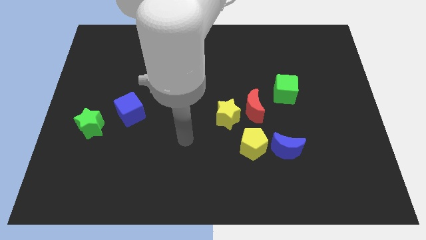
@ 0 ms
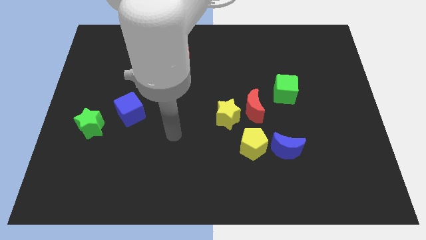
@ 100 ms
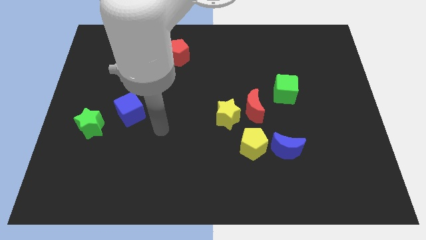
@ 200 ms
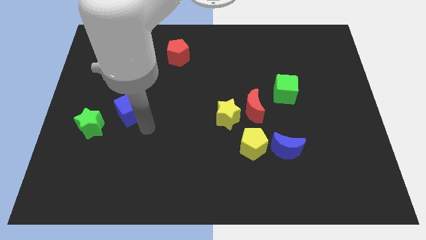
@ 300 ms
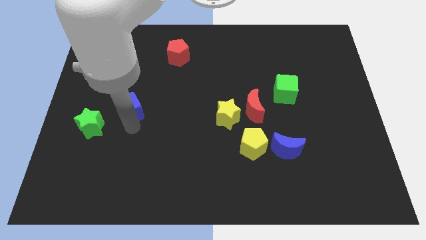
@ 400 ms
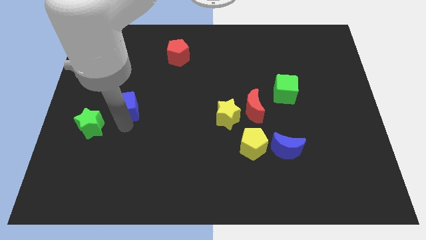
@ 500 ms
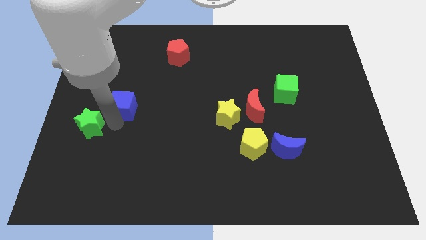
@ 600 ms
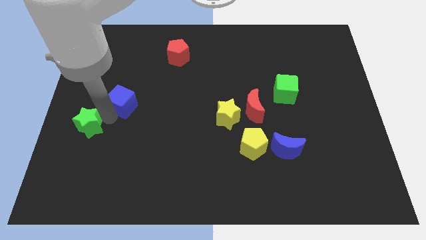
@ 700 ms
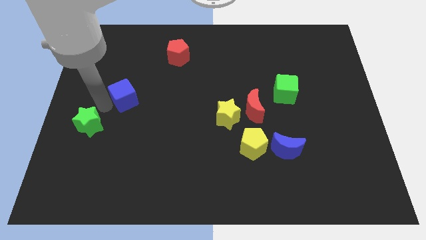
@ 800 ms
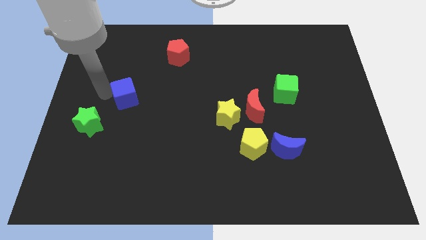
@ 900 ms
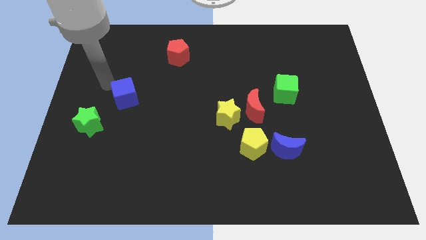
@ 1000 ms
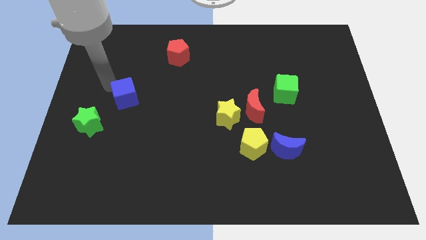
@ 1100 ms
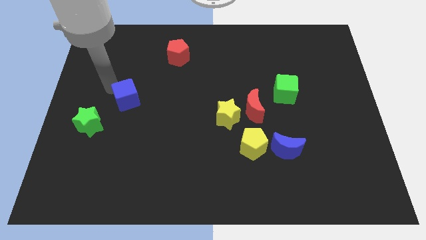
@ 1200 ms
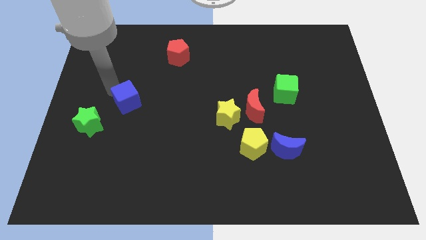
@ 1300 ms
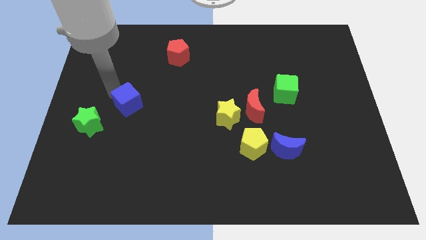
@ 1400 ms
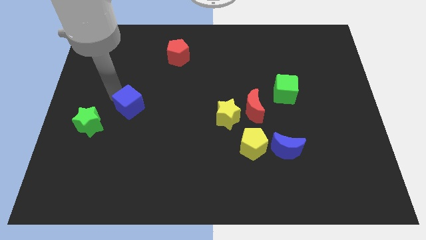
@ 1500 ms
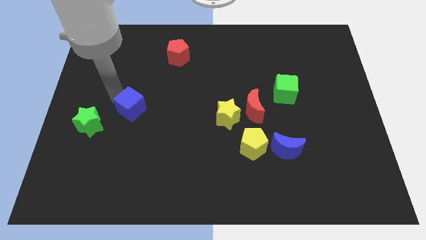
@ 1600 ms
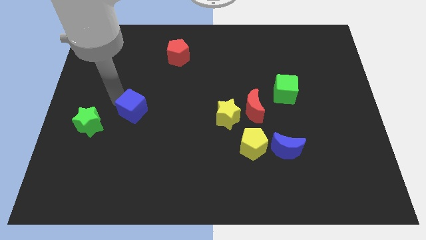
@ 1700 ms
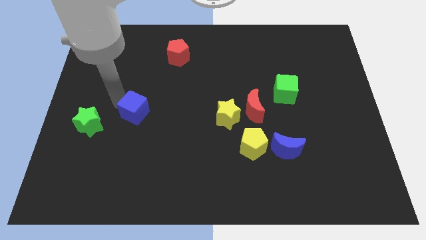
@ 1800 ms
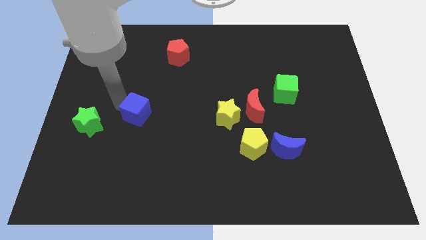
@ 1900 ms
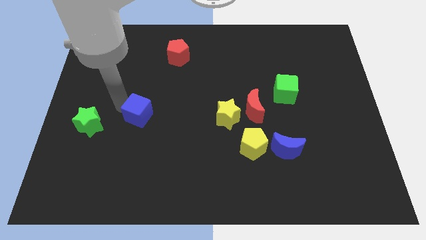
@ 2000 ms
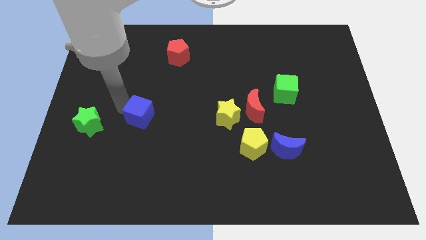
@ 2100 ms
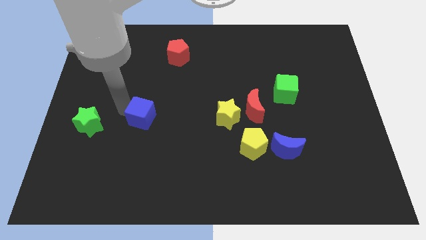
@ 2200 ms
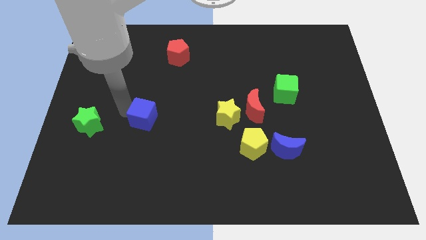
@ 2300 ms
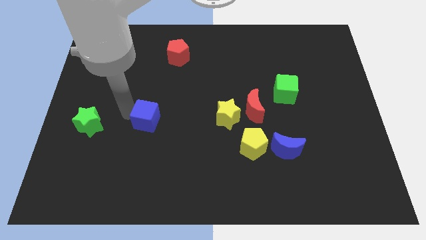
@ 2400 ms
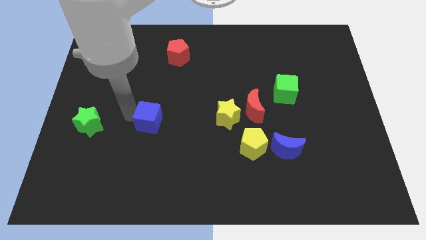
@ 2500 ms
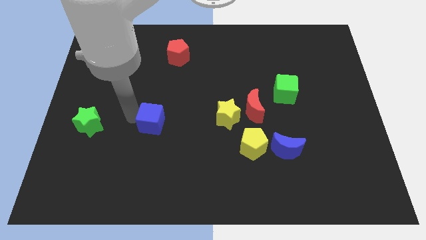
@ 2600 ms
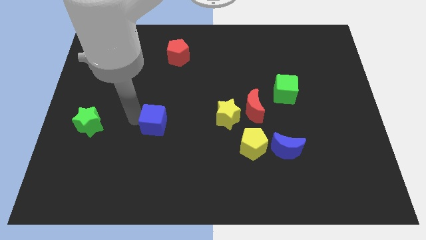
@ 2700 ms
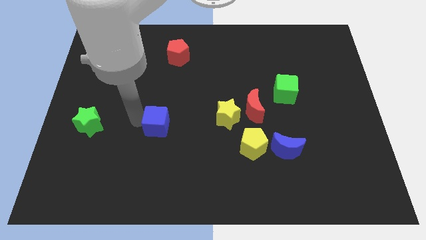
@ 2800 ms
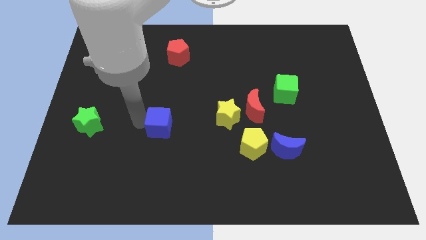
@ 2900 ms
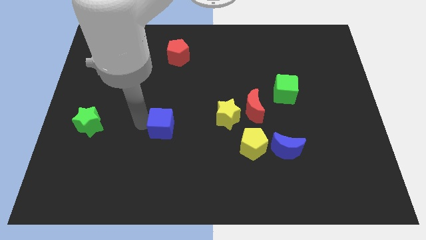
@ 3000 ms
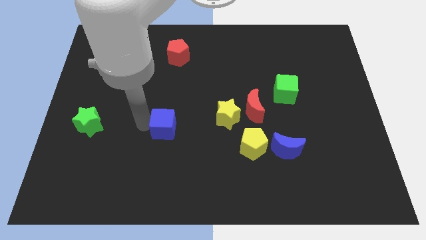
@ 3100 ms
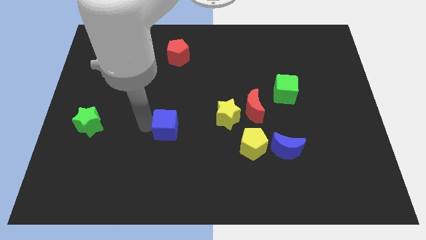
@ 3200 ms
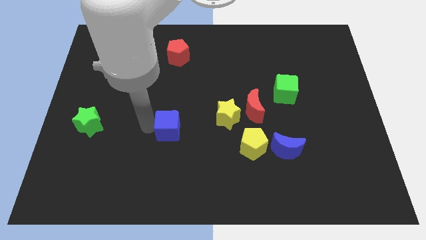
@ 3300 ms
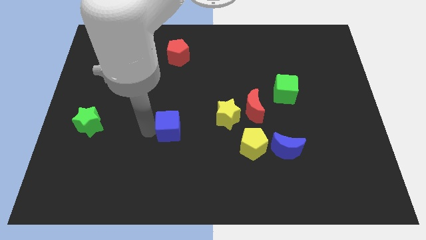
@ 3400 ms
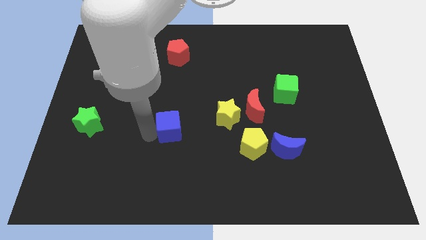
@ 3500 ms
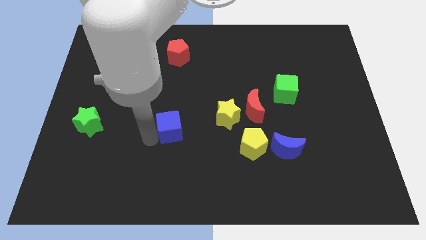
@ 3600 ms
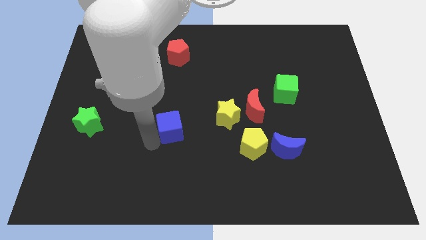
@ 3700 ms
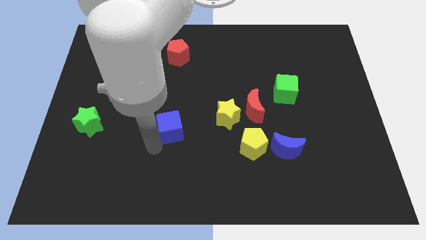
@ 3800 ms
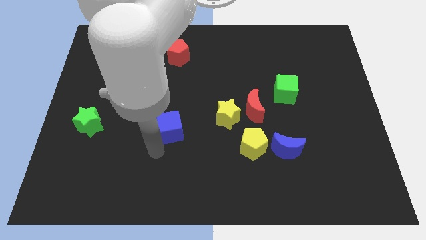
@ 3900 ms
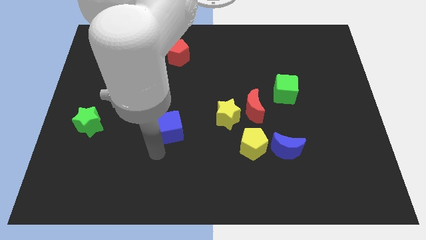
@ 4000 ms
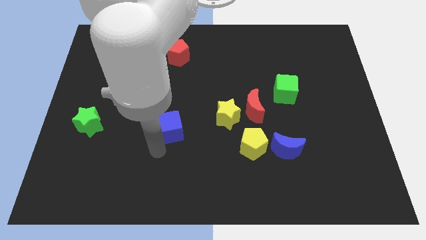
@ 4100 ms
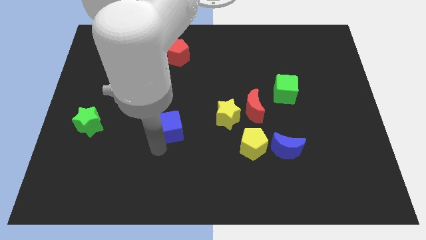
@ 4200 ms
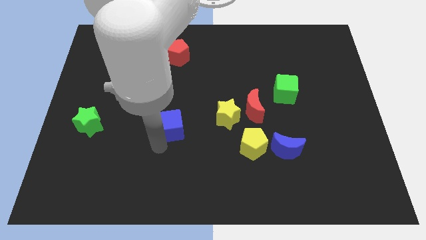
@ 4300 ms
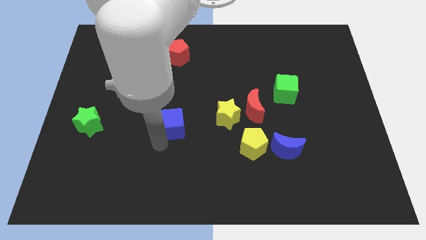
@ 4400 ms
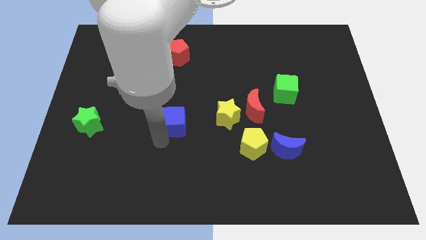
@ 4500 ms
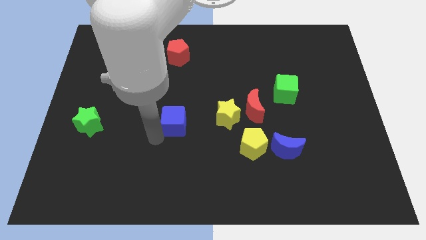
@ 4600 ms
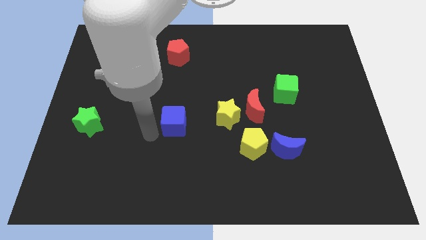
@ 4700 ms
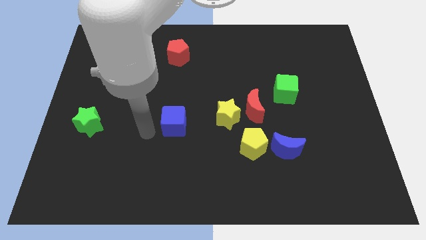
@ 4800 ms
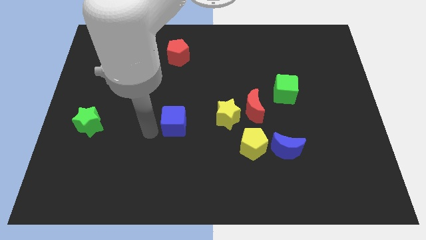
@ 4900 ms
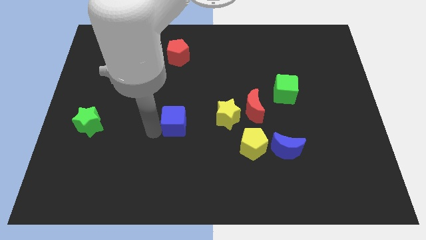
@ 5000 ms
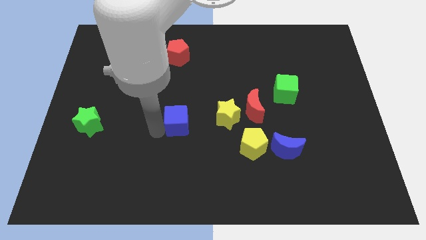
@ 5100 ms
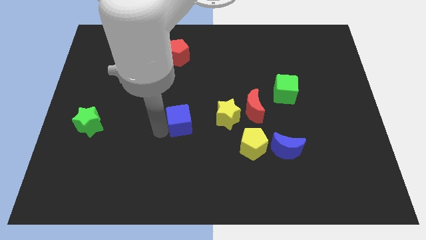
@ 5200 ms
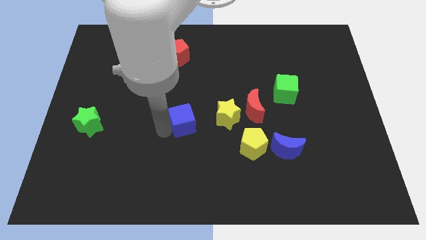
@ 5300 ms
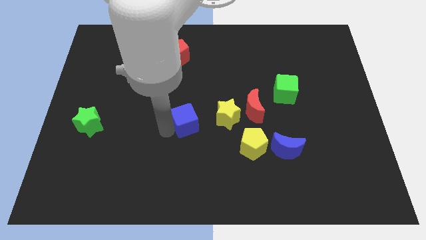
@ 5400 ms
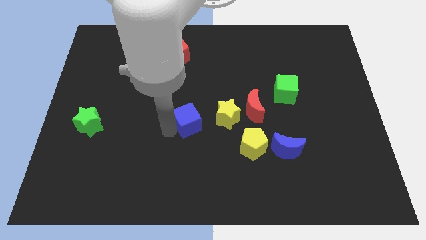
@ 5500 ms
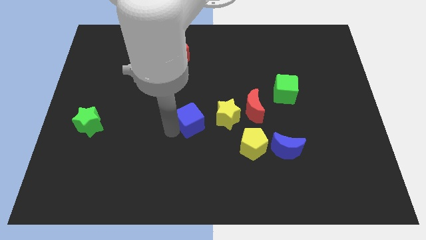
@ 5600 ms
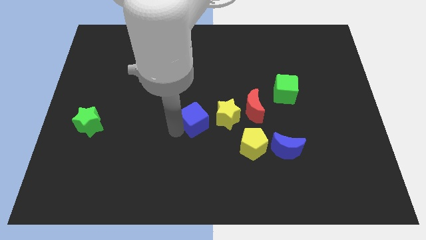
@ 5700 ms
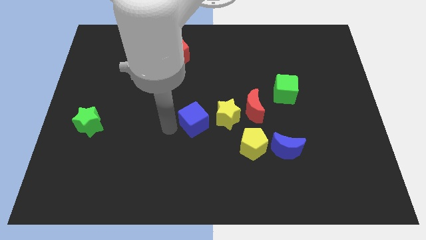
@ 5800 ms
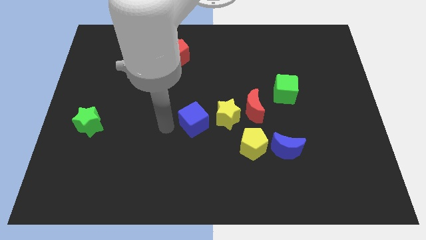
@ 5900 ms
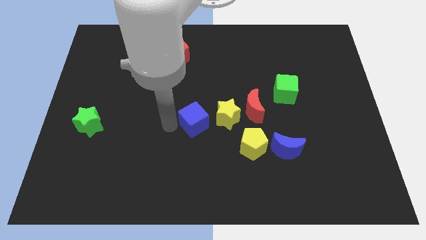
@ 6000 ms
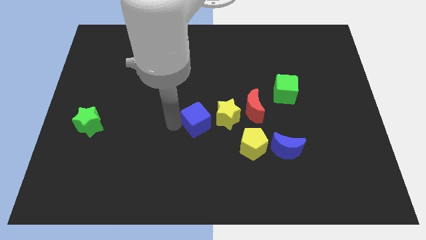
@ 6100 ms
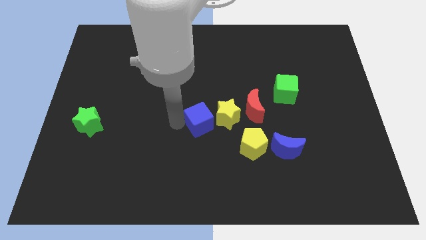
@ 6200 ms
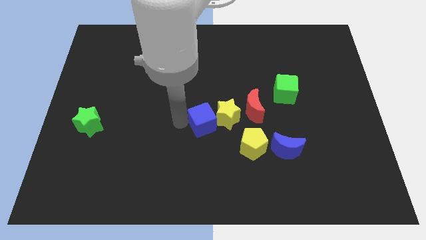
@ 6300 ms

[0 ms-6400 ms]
push the blue cube close to the yellow star

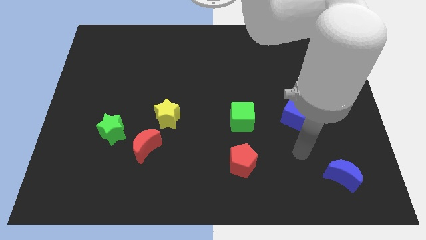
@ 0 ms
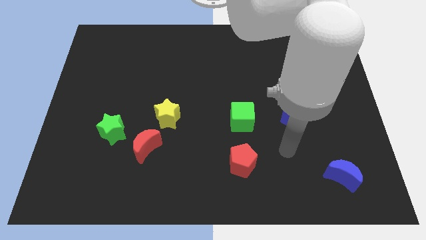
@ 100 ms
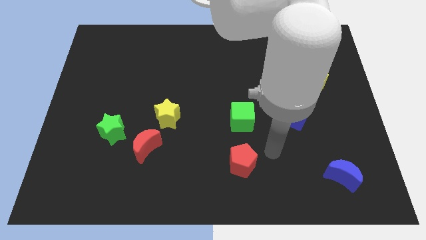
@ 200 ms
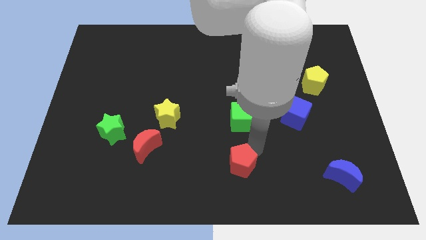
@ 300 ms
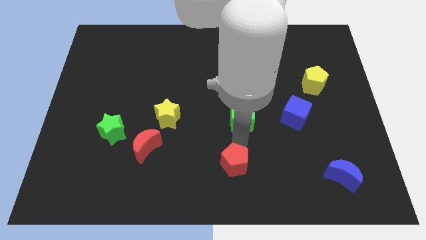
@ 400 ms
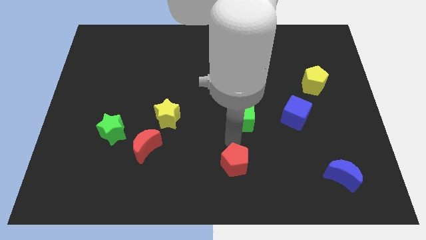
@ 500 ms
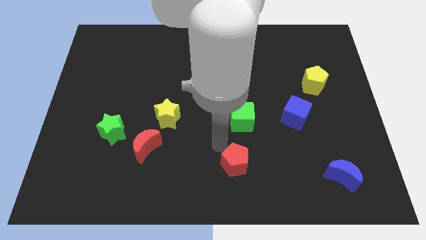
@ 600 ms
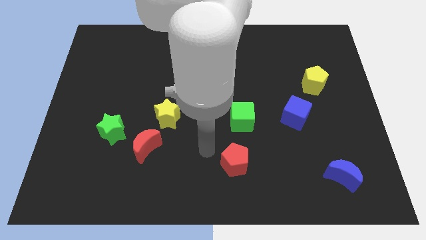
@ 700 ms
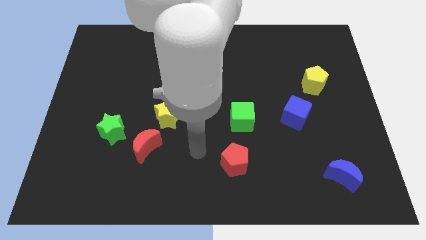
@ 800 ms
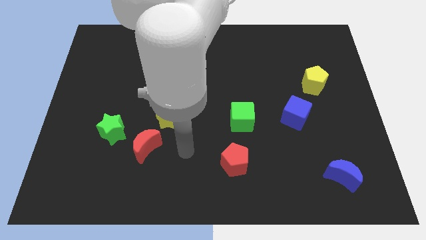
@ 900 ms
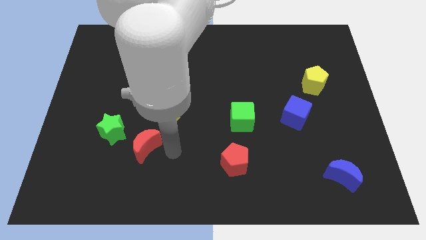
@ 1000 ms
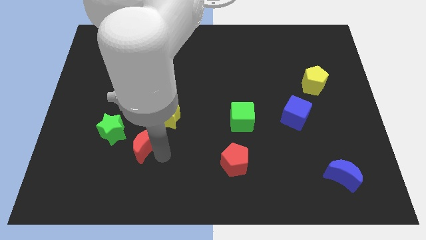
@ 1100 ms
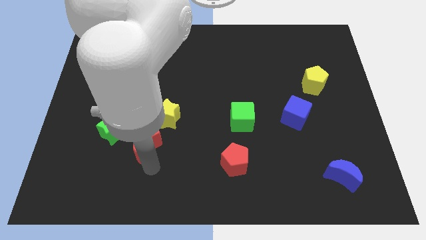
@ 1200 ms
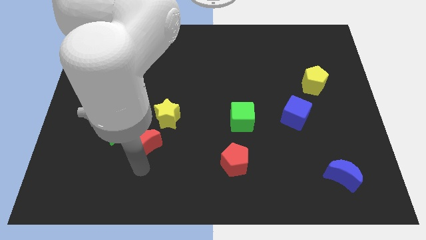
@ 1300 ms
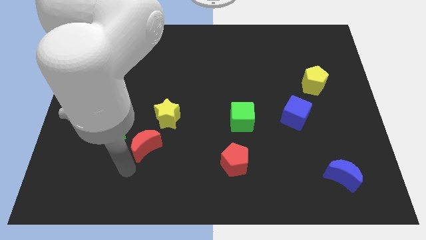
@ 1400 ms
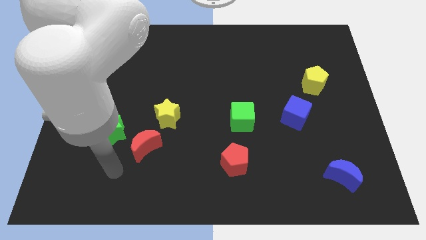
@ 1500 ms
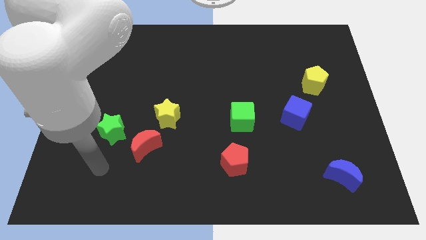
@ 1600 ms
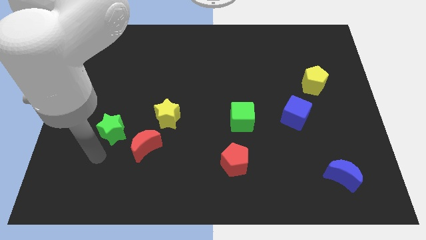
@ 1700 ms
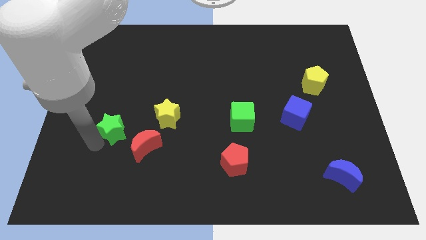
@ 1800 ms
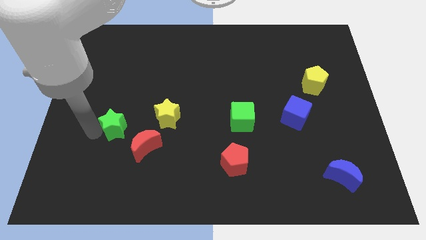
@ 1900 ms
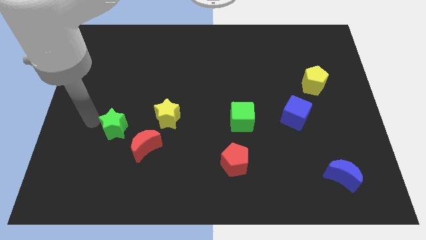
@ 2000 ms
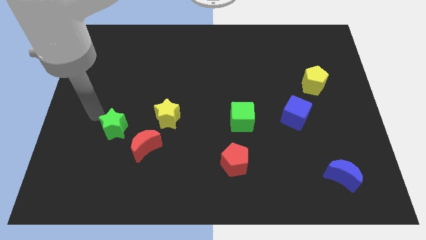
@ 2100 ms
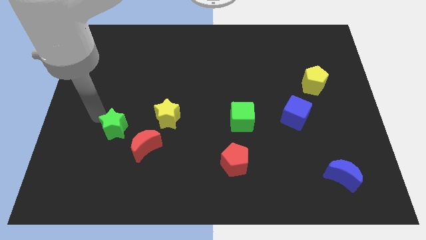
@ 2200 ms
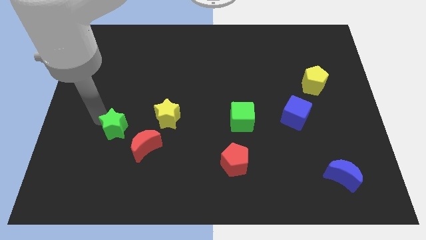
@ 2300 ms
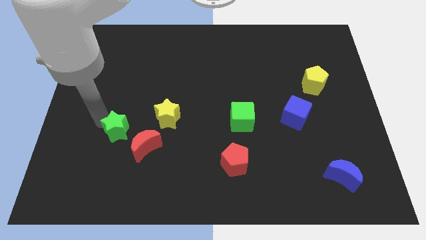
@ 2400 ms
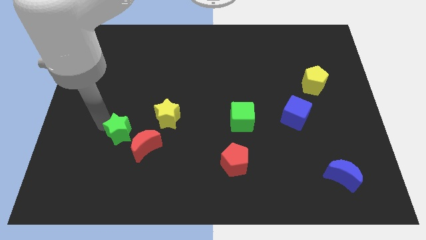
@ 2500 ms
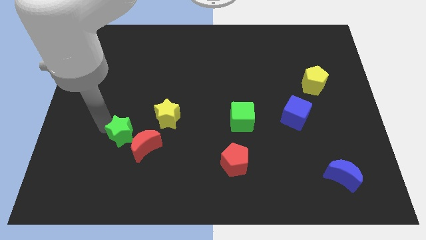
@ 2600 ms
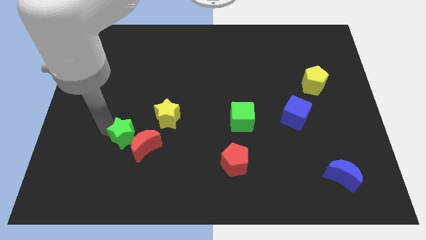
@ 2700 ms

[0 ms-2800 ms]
move the green star close to the red moon
